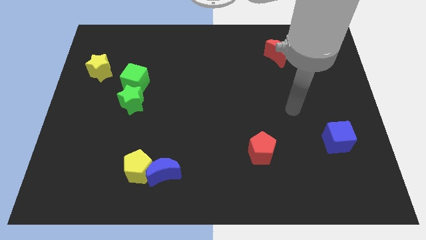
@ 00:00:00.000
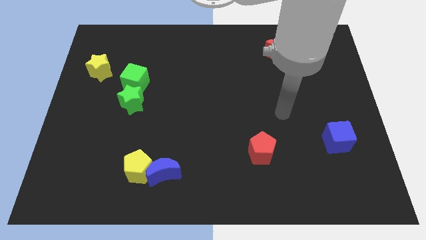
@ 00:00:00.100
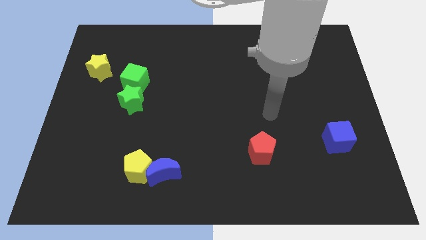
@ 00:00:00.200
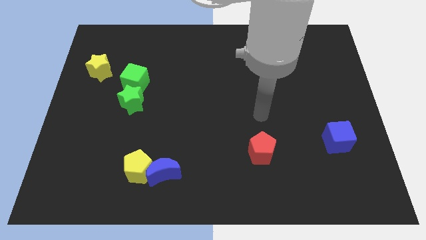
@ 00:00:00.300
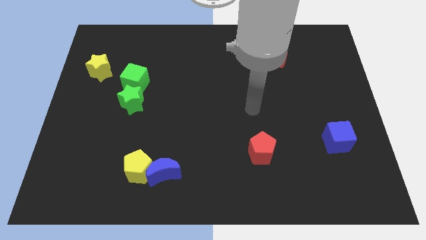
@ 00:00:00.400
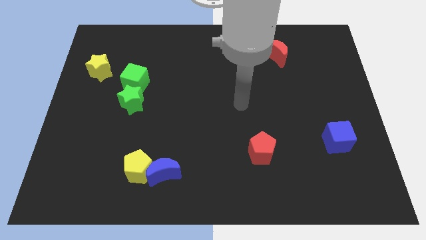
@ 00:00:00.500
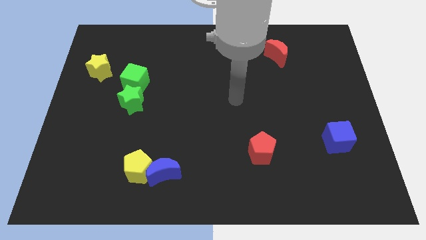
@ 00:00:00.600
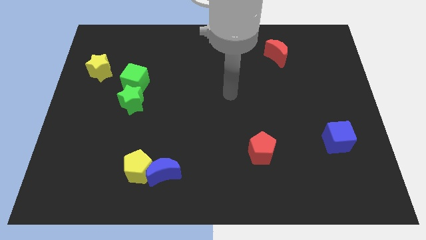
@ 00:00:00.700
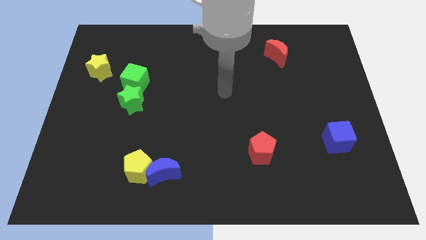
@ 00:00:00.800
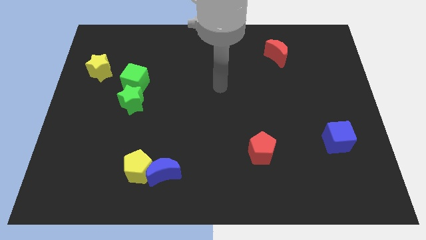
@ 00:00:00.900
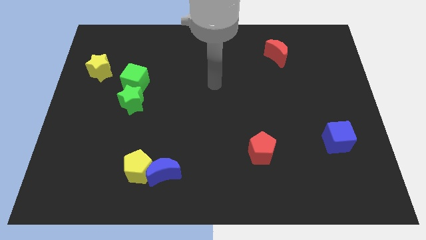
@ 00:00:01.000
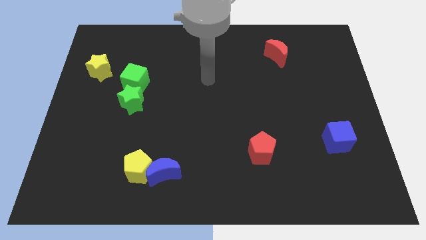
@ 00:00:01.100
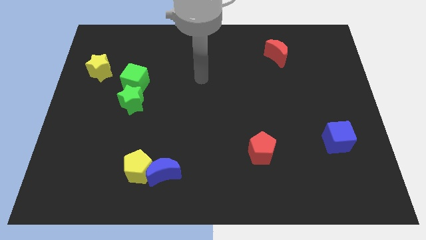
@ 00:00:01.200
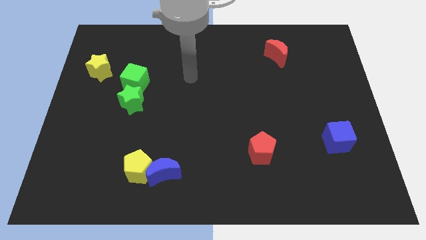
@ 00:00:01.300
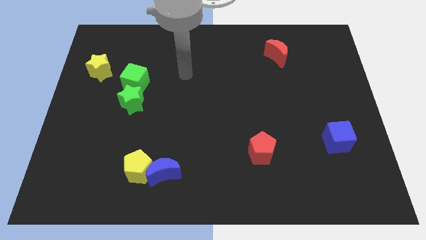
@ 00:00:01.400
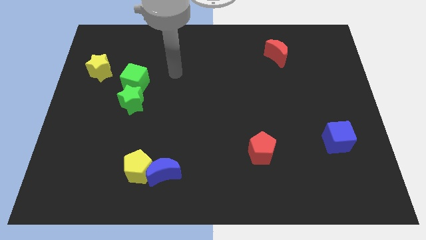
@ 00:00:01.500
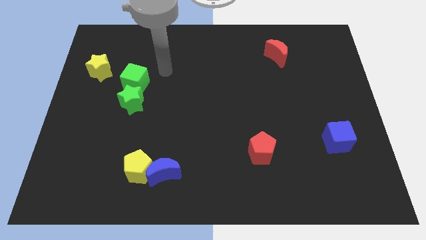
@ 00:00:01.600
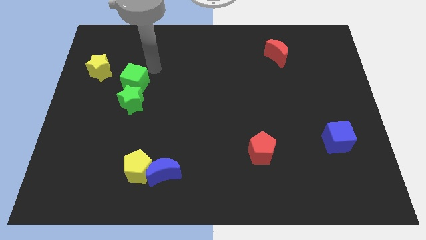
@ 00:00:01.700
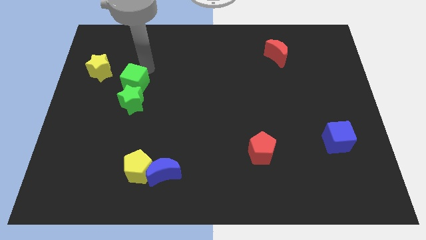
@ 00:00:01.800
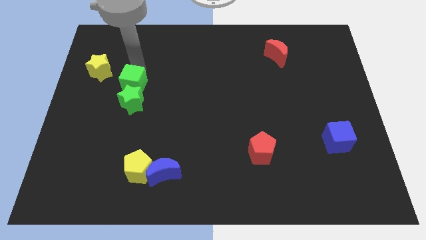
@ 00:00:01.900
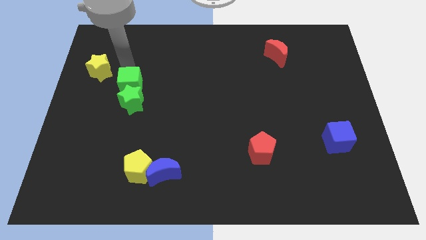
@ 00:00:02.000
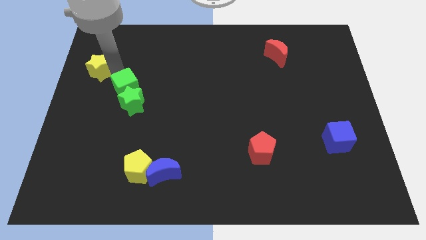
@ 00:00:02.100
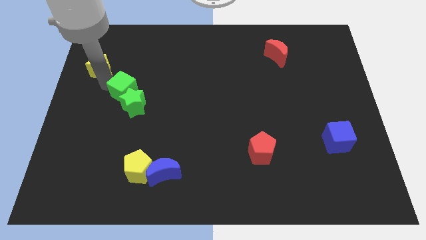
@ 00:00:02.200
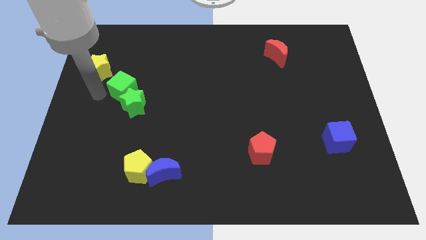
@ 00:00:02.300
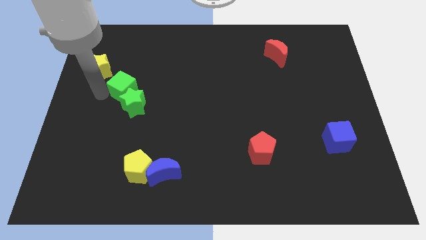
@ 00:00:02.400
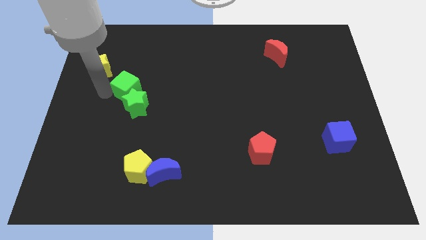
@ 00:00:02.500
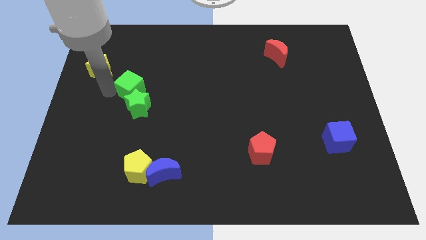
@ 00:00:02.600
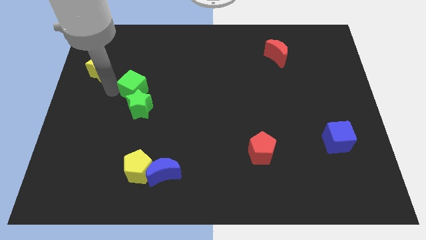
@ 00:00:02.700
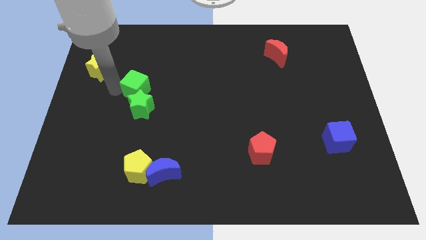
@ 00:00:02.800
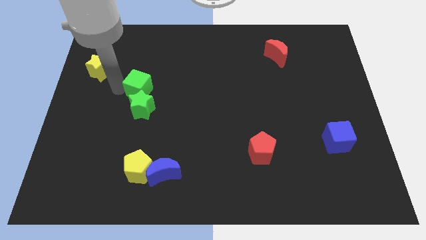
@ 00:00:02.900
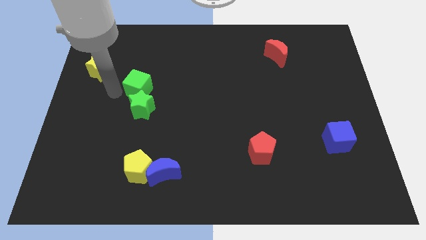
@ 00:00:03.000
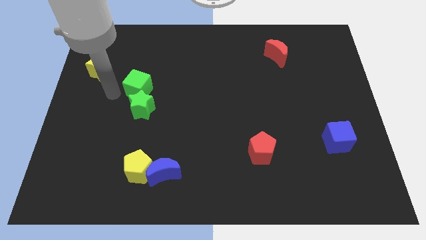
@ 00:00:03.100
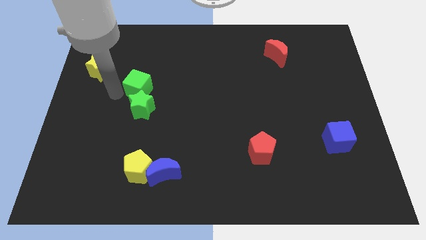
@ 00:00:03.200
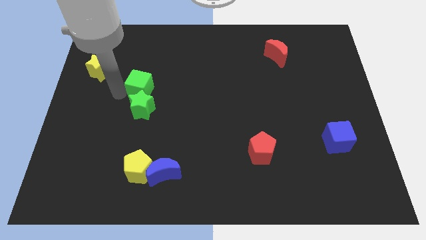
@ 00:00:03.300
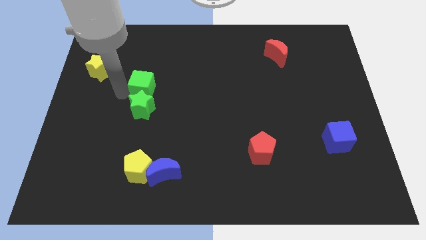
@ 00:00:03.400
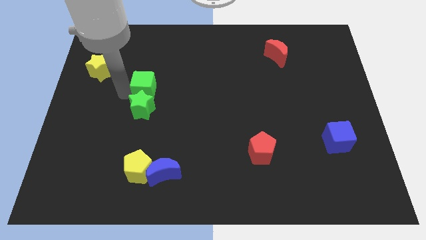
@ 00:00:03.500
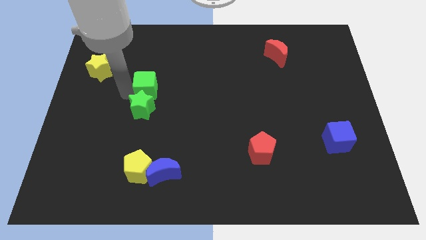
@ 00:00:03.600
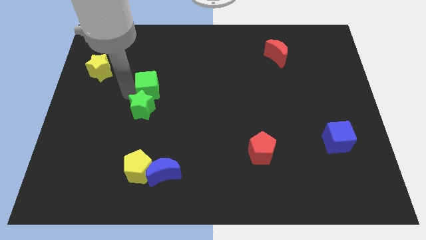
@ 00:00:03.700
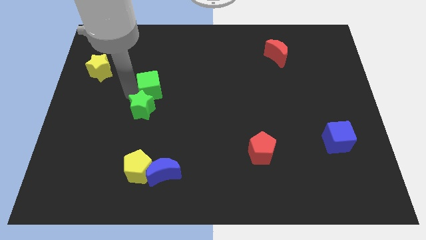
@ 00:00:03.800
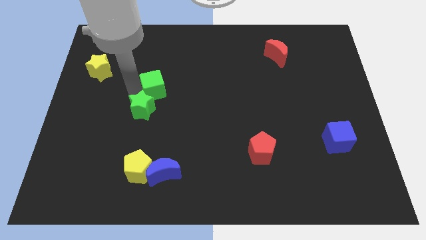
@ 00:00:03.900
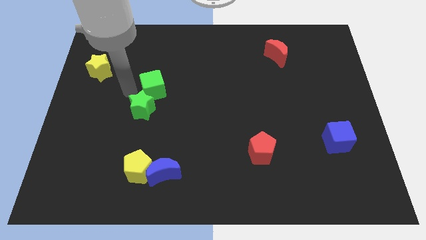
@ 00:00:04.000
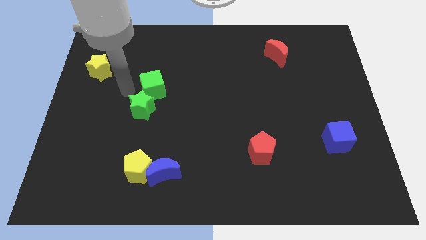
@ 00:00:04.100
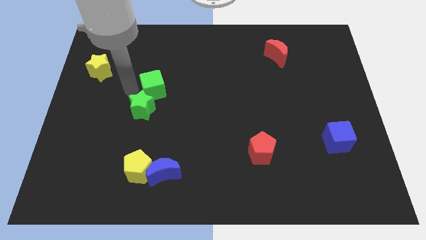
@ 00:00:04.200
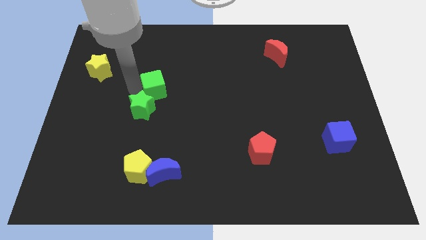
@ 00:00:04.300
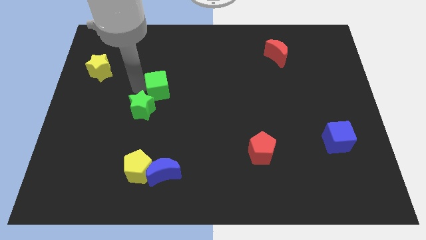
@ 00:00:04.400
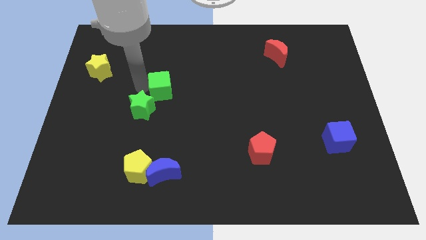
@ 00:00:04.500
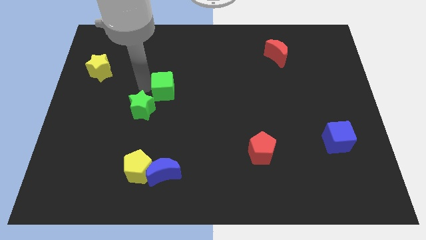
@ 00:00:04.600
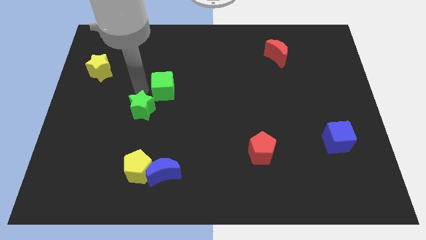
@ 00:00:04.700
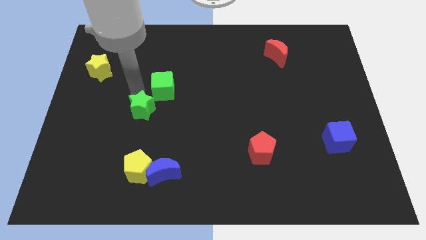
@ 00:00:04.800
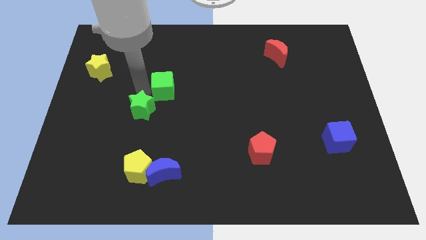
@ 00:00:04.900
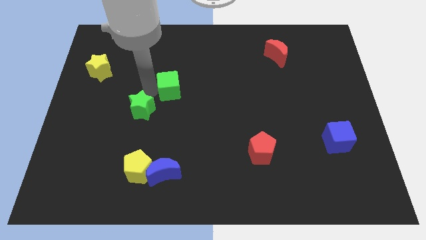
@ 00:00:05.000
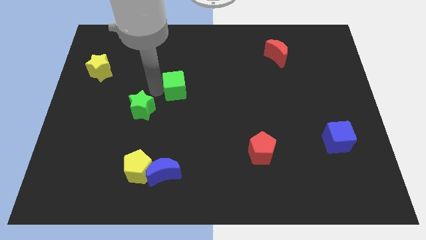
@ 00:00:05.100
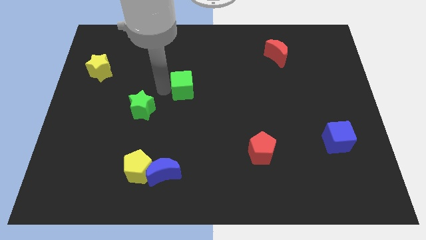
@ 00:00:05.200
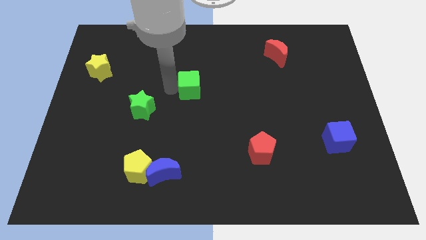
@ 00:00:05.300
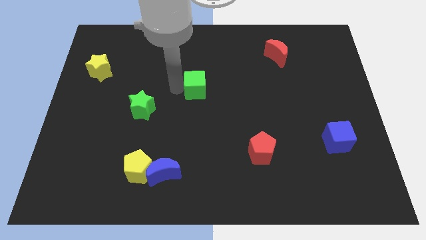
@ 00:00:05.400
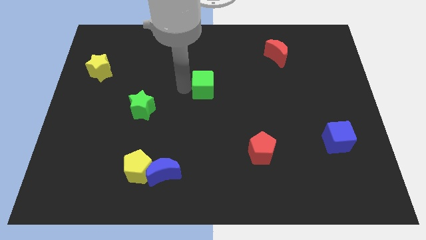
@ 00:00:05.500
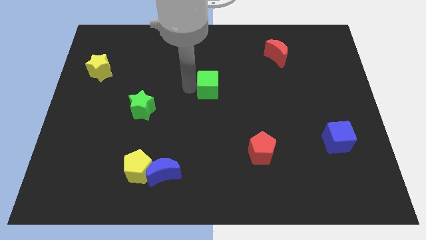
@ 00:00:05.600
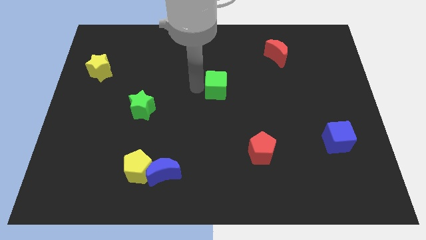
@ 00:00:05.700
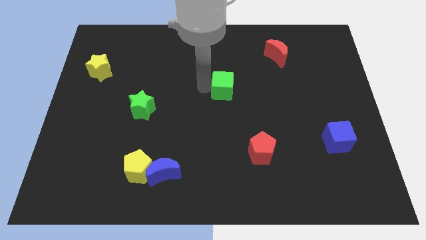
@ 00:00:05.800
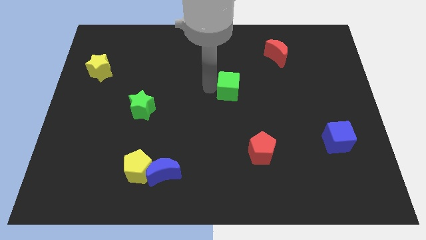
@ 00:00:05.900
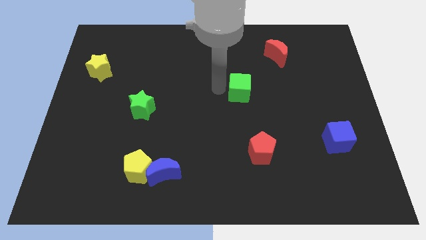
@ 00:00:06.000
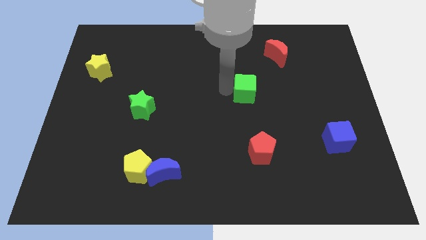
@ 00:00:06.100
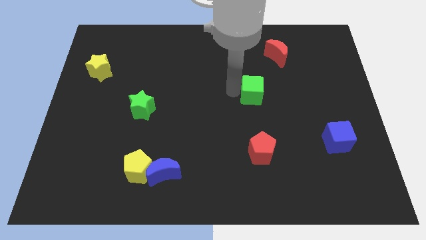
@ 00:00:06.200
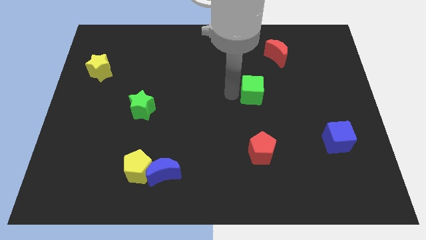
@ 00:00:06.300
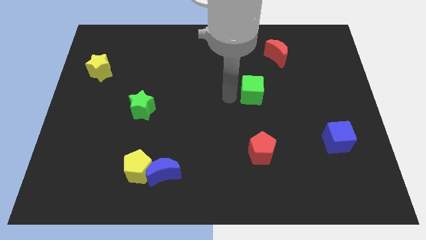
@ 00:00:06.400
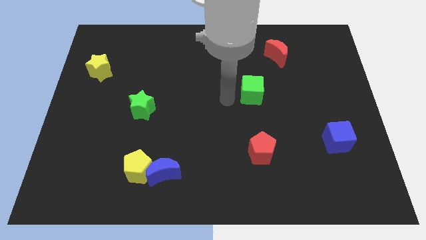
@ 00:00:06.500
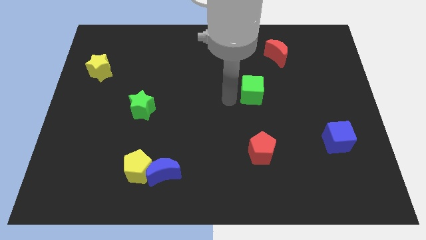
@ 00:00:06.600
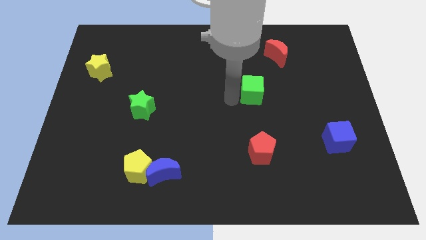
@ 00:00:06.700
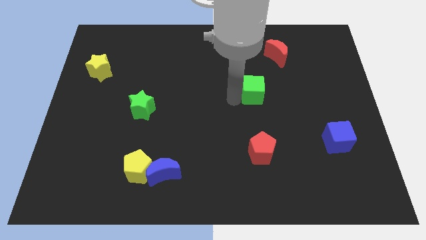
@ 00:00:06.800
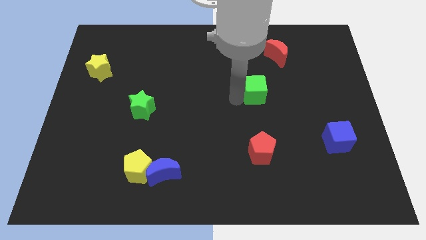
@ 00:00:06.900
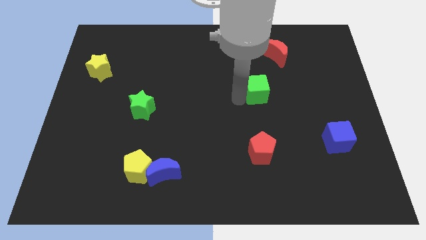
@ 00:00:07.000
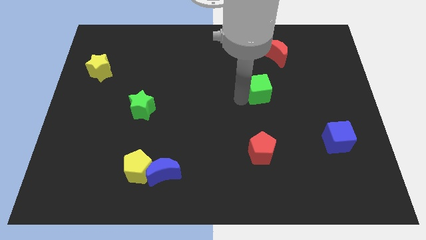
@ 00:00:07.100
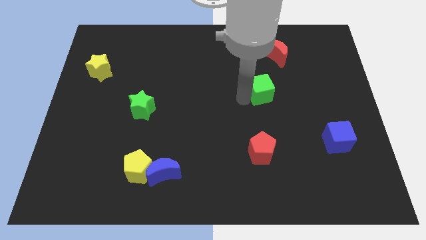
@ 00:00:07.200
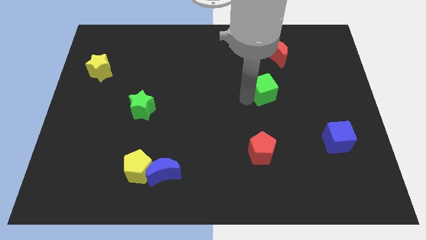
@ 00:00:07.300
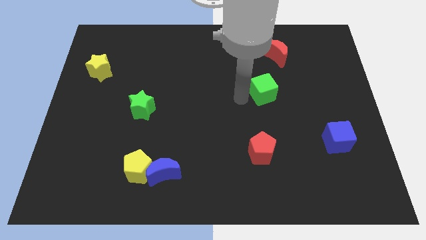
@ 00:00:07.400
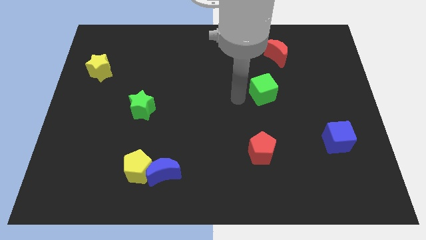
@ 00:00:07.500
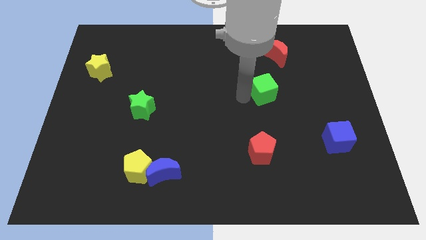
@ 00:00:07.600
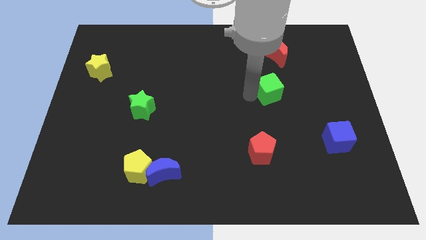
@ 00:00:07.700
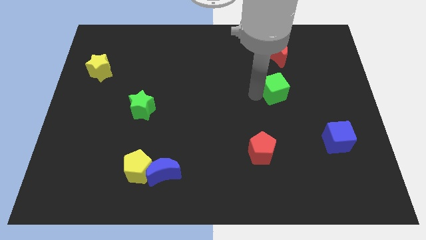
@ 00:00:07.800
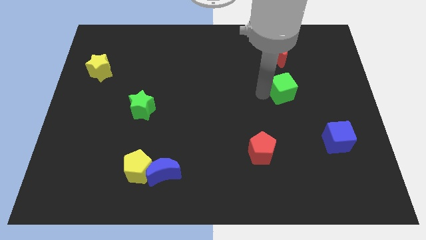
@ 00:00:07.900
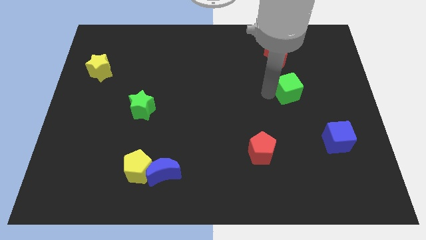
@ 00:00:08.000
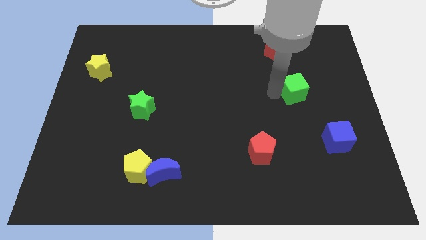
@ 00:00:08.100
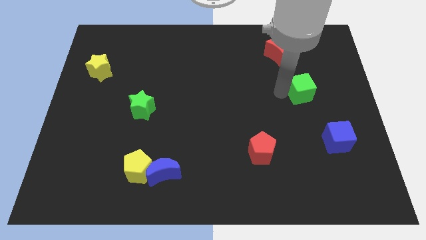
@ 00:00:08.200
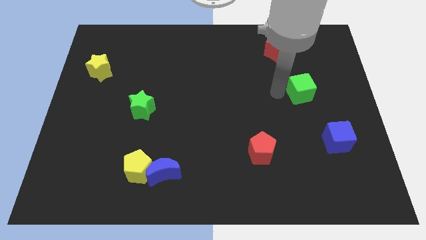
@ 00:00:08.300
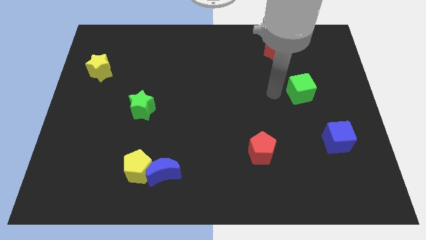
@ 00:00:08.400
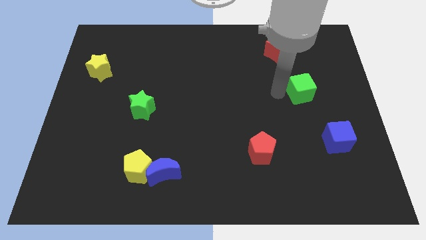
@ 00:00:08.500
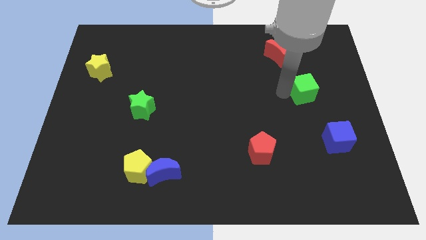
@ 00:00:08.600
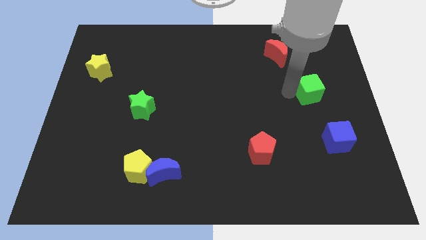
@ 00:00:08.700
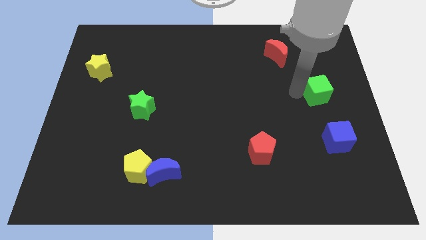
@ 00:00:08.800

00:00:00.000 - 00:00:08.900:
move the green cube to the right side
